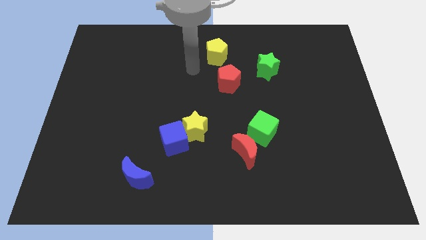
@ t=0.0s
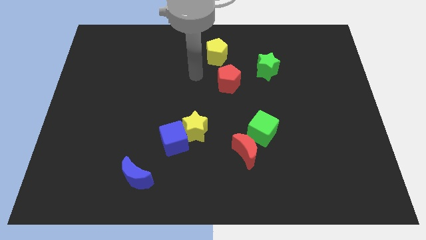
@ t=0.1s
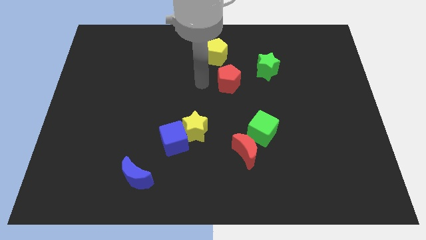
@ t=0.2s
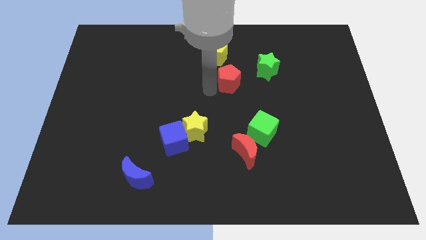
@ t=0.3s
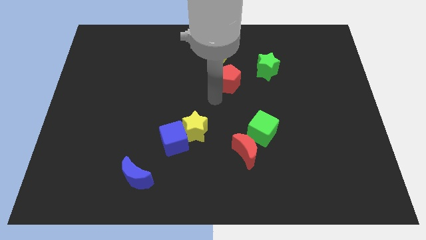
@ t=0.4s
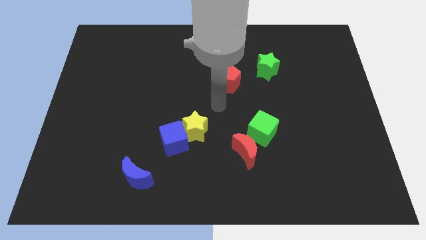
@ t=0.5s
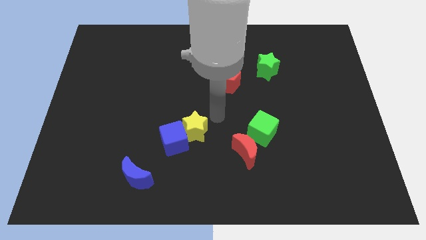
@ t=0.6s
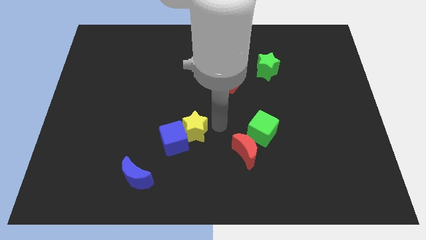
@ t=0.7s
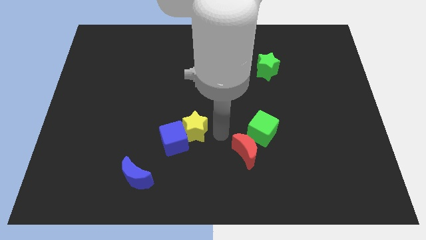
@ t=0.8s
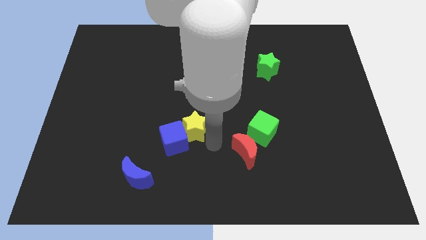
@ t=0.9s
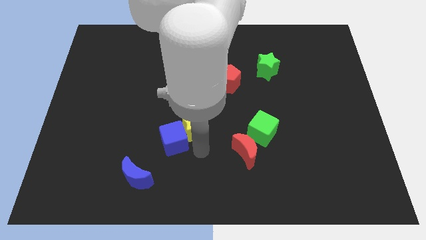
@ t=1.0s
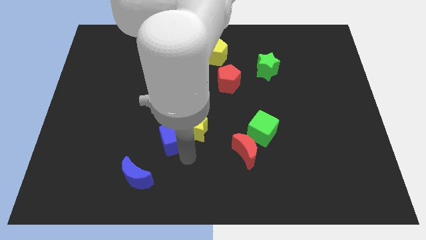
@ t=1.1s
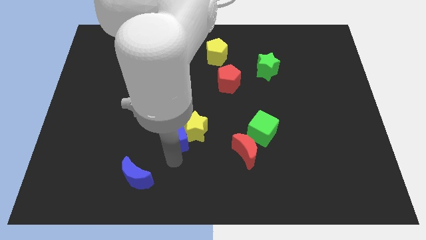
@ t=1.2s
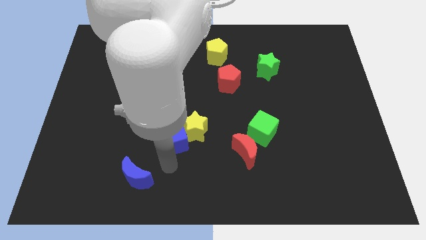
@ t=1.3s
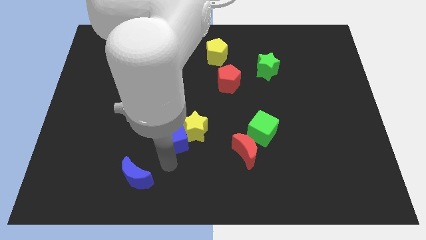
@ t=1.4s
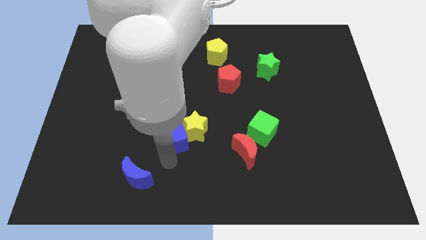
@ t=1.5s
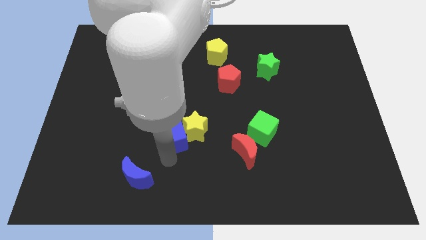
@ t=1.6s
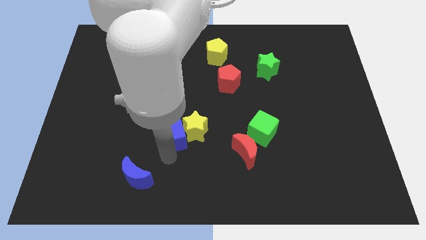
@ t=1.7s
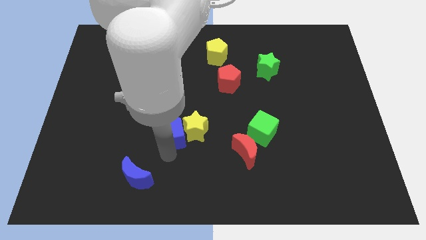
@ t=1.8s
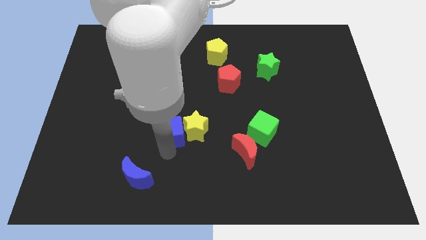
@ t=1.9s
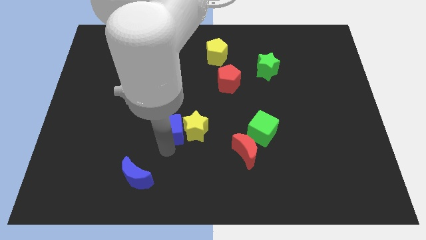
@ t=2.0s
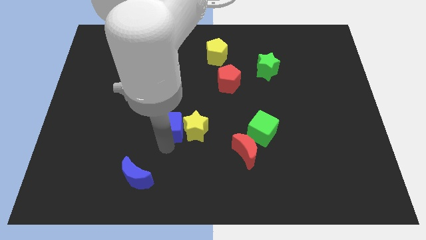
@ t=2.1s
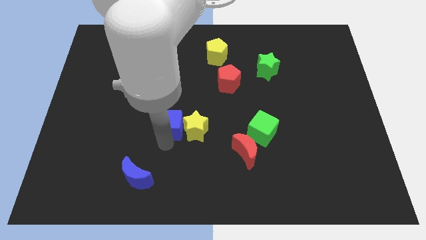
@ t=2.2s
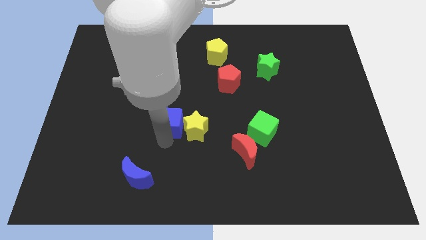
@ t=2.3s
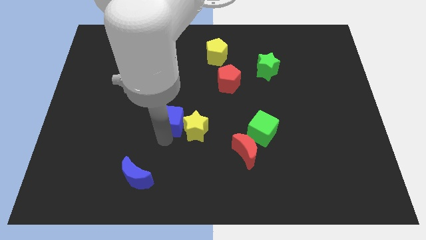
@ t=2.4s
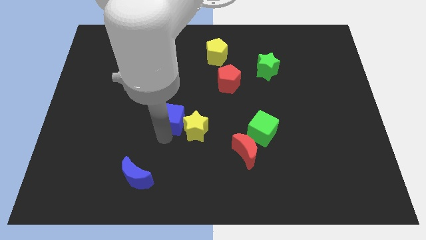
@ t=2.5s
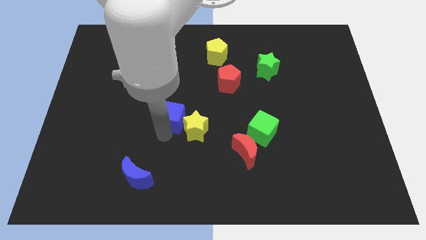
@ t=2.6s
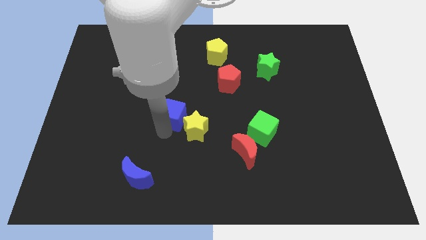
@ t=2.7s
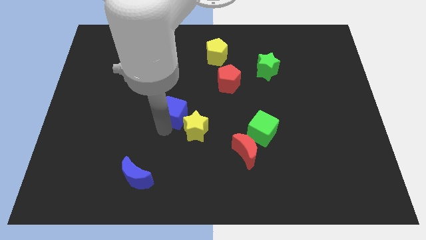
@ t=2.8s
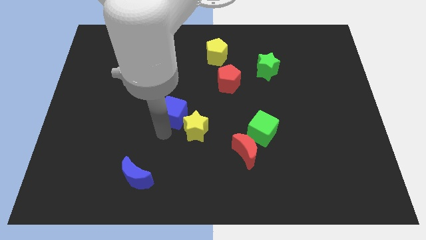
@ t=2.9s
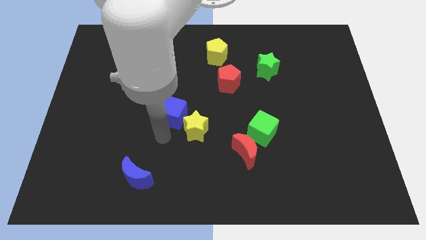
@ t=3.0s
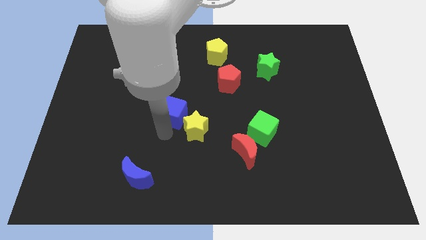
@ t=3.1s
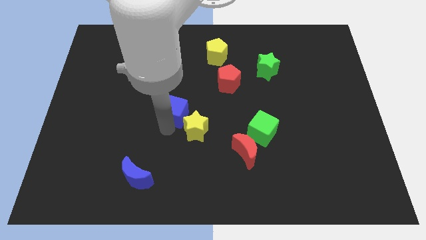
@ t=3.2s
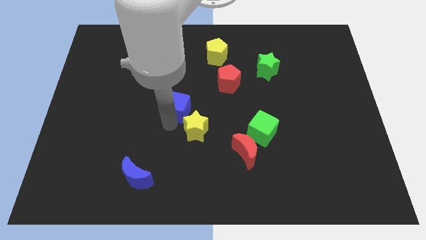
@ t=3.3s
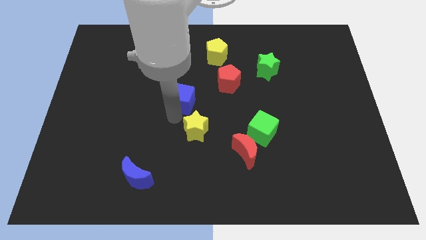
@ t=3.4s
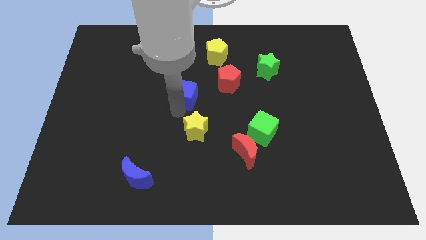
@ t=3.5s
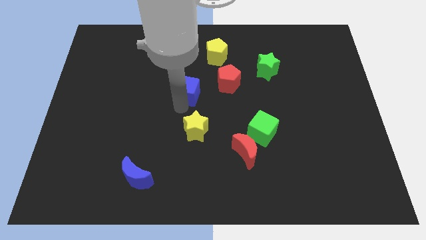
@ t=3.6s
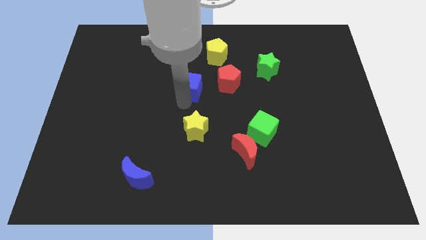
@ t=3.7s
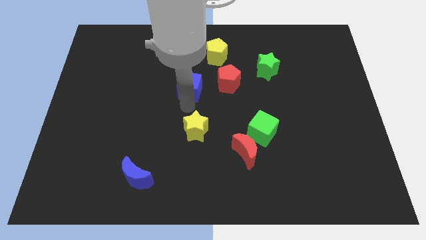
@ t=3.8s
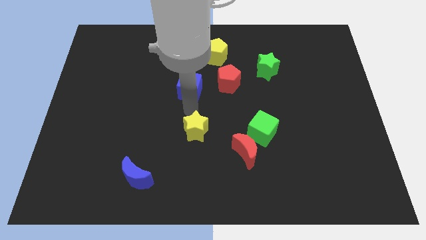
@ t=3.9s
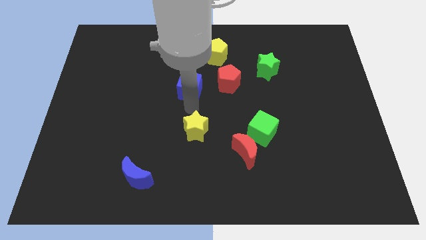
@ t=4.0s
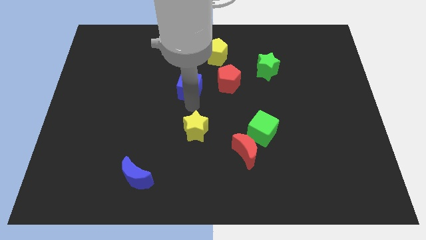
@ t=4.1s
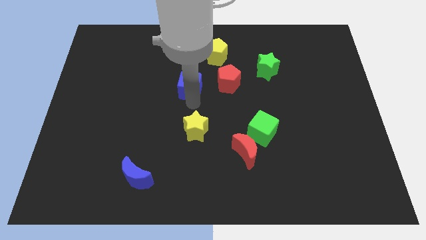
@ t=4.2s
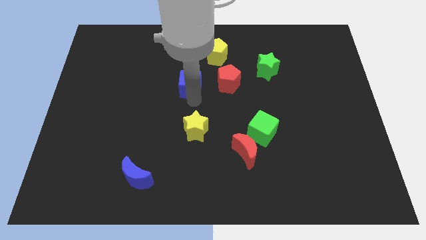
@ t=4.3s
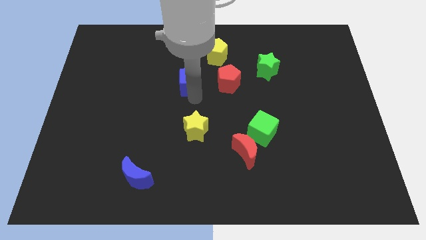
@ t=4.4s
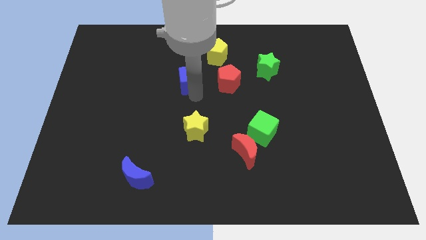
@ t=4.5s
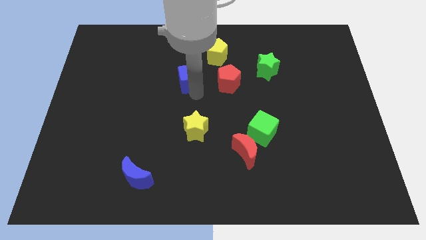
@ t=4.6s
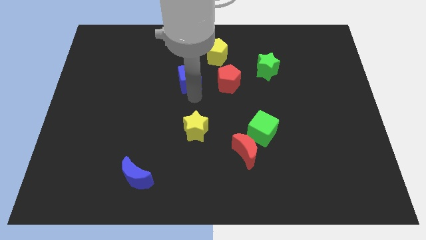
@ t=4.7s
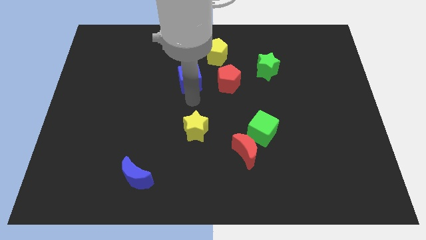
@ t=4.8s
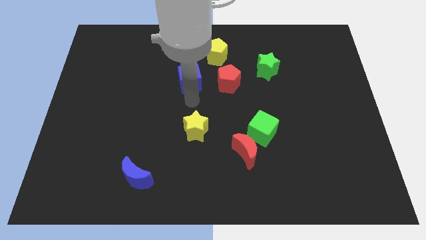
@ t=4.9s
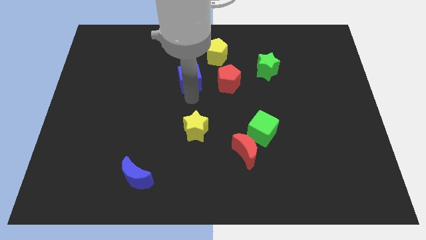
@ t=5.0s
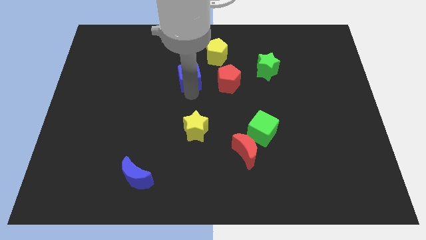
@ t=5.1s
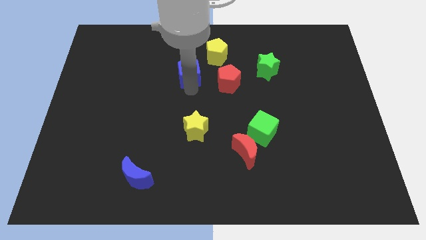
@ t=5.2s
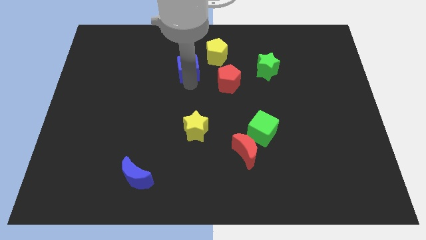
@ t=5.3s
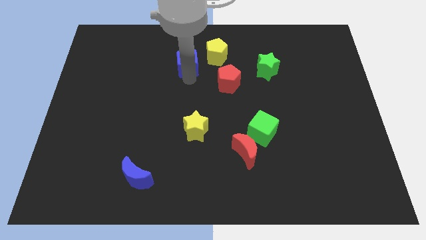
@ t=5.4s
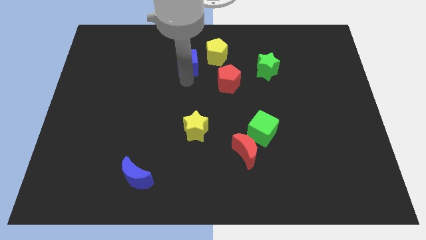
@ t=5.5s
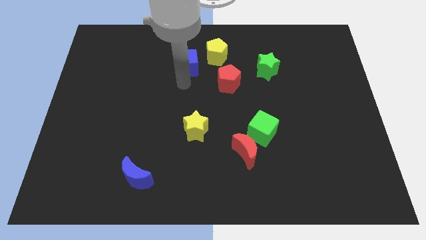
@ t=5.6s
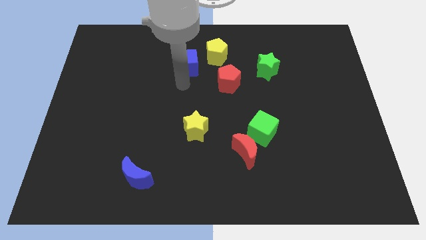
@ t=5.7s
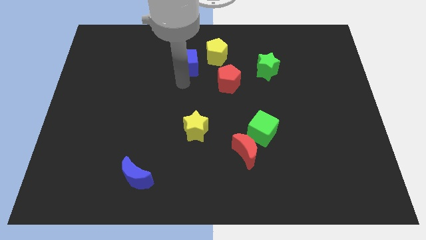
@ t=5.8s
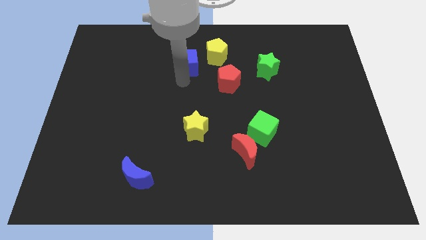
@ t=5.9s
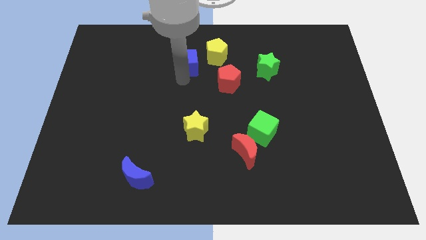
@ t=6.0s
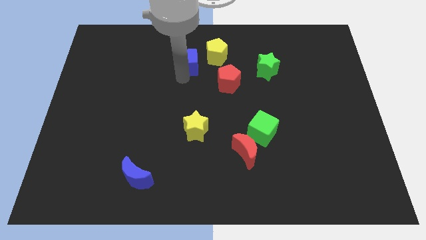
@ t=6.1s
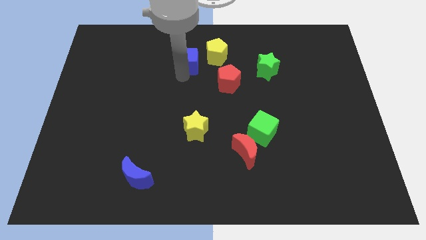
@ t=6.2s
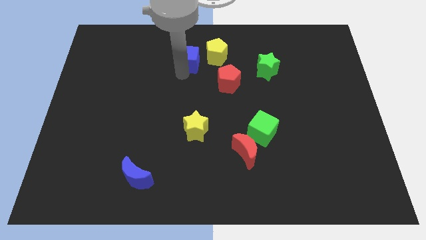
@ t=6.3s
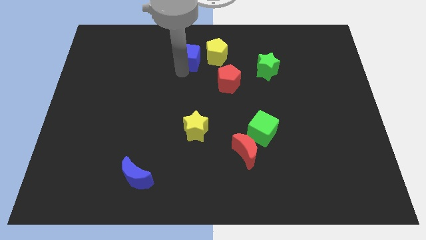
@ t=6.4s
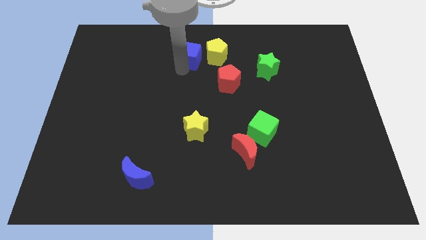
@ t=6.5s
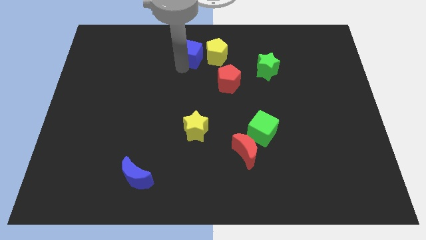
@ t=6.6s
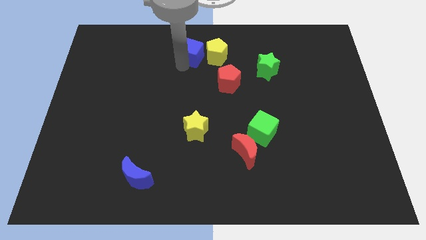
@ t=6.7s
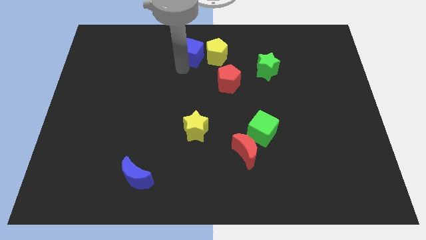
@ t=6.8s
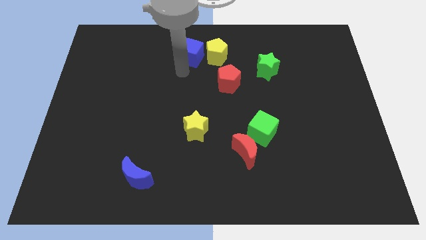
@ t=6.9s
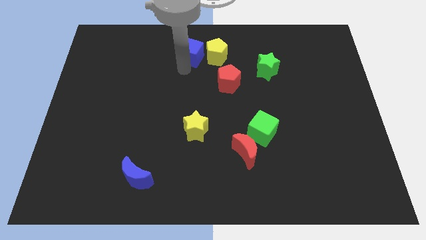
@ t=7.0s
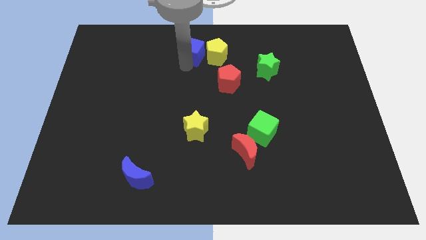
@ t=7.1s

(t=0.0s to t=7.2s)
move the blue cube to the top side
